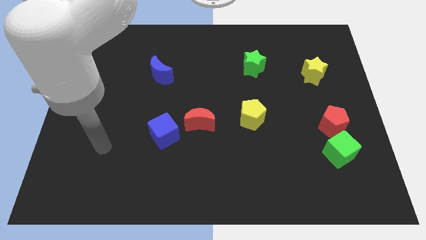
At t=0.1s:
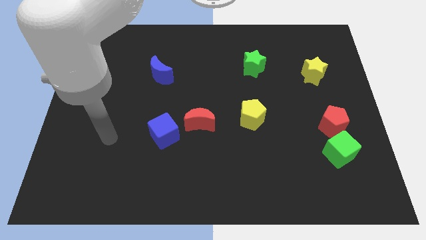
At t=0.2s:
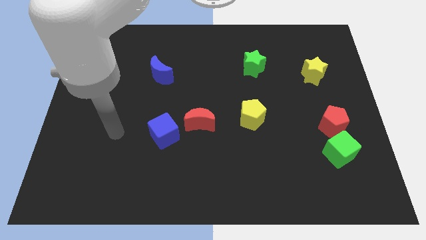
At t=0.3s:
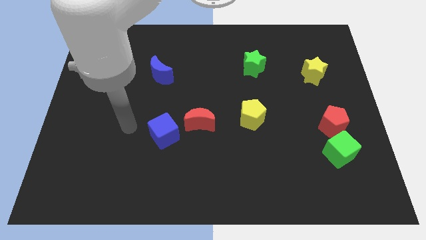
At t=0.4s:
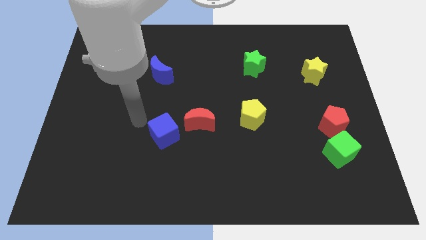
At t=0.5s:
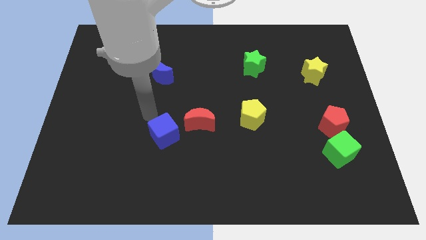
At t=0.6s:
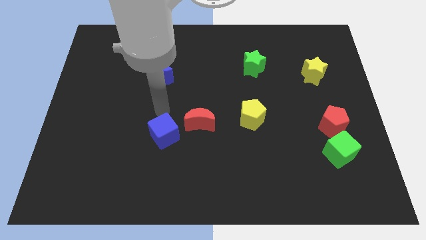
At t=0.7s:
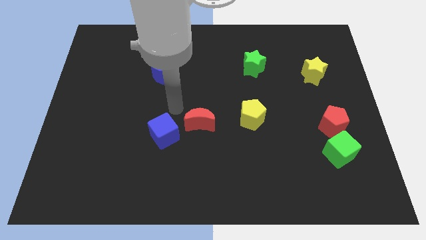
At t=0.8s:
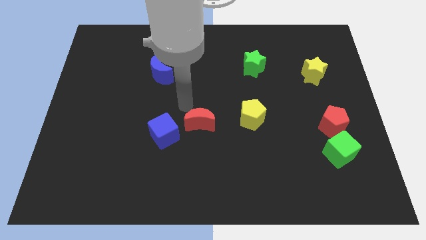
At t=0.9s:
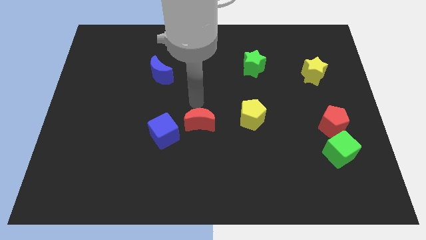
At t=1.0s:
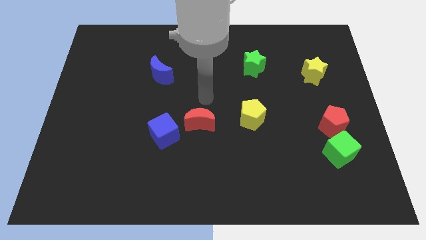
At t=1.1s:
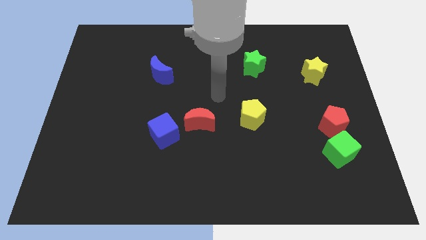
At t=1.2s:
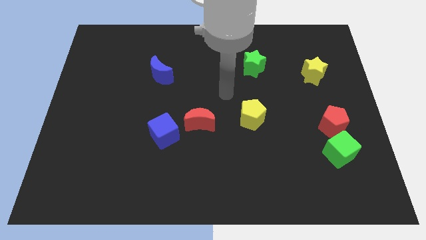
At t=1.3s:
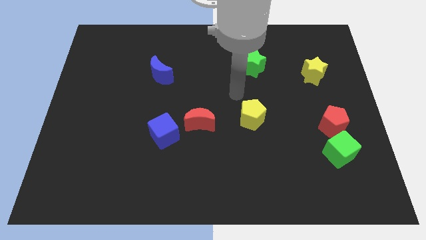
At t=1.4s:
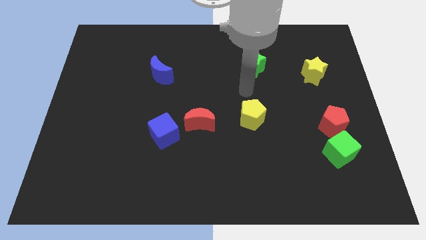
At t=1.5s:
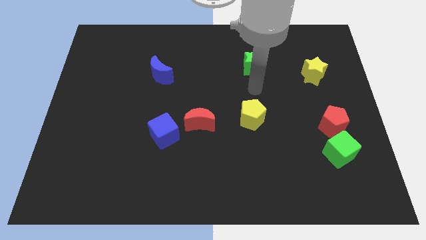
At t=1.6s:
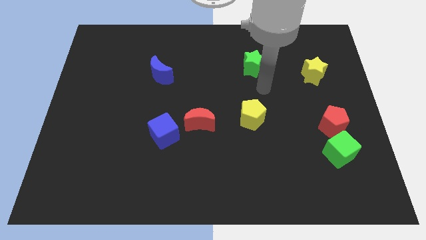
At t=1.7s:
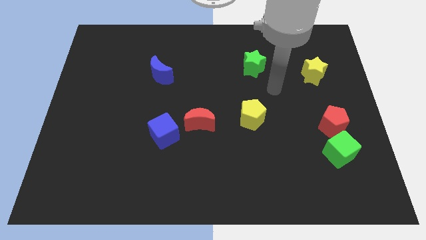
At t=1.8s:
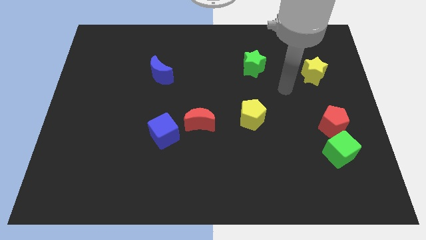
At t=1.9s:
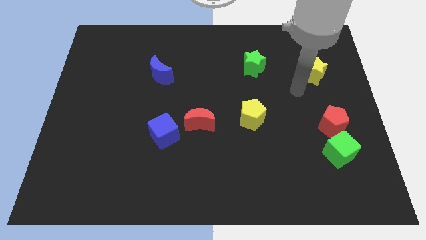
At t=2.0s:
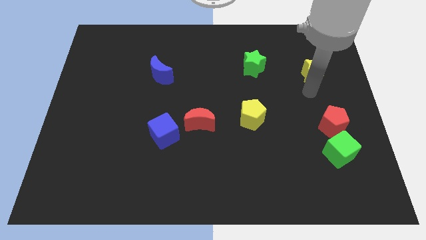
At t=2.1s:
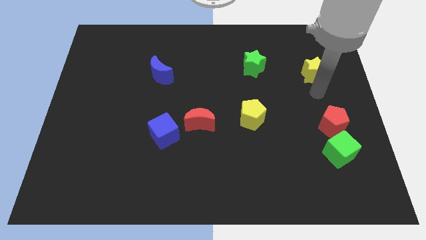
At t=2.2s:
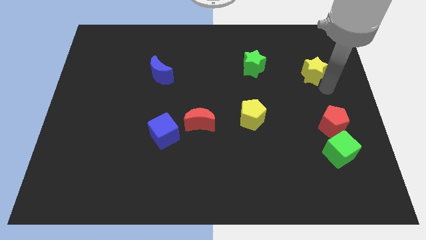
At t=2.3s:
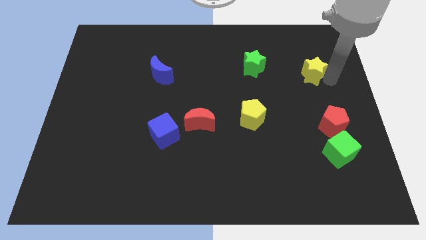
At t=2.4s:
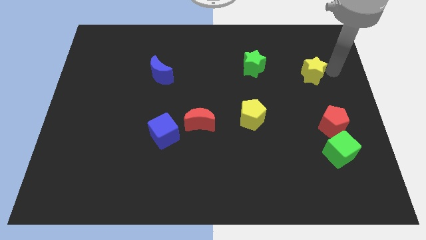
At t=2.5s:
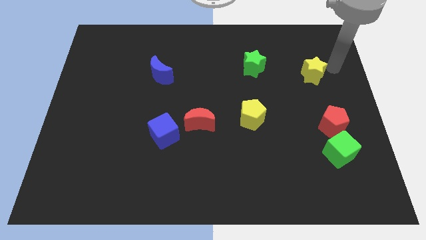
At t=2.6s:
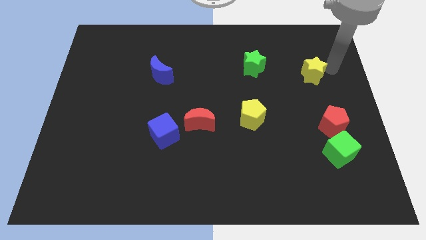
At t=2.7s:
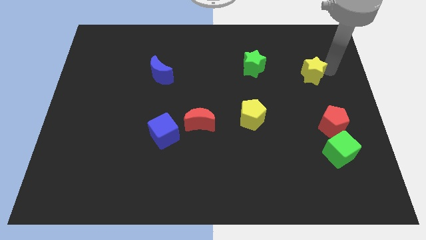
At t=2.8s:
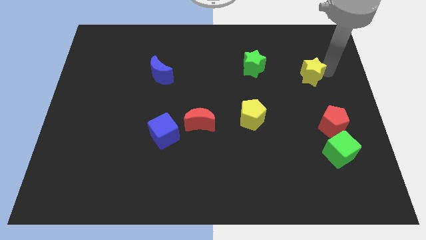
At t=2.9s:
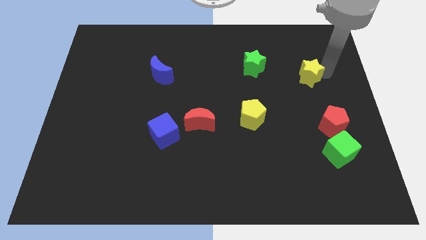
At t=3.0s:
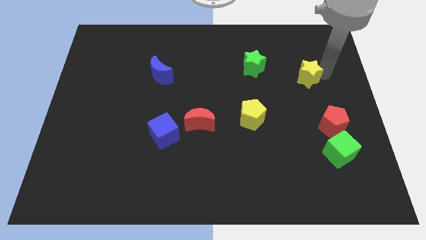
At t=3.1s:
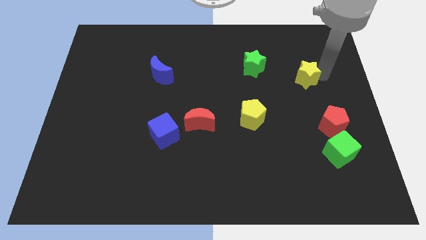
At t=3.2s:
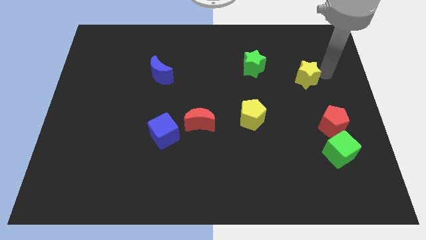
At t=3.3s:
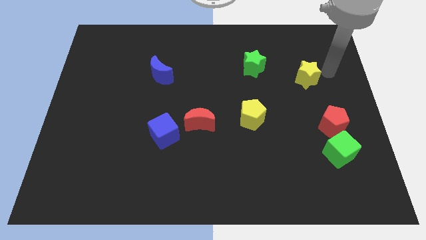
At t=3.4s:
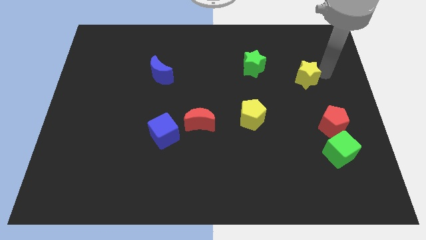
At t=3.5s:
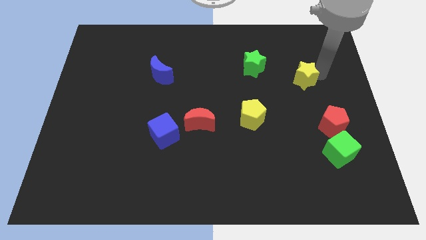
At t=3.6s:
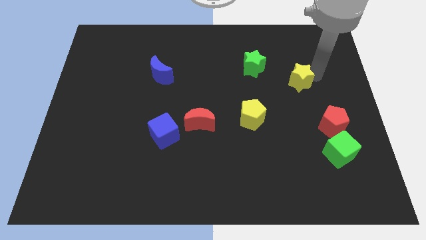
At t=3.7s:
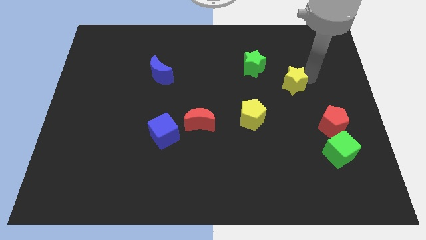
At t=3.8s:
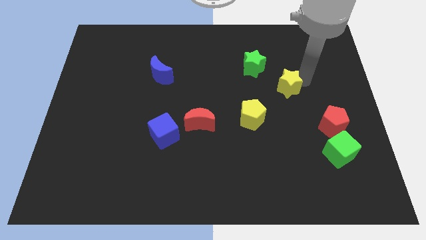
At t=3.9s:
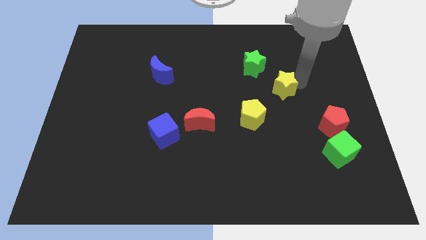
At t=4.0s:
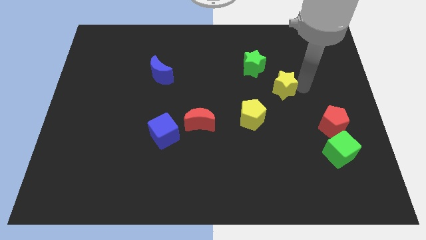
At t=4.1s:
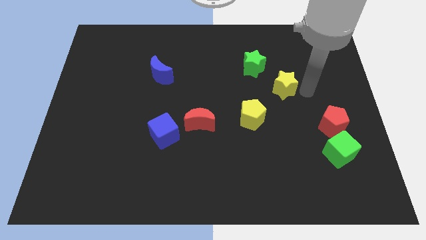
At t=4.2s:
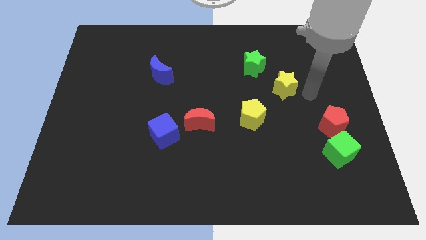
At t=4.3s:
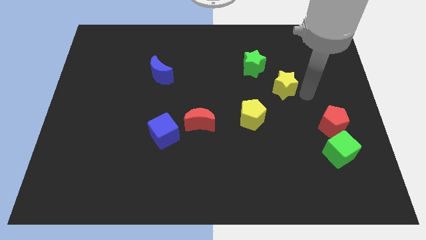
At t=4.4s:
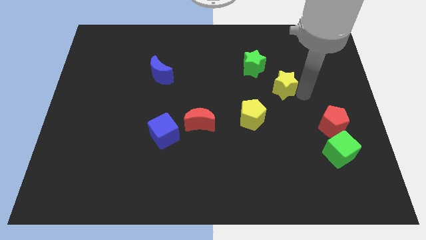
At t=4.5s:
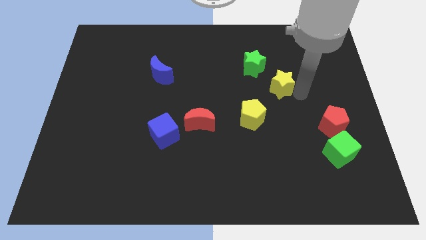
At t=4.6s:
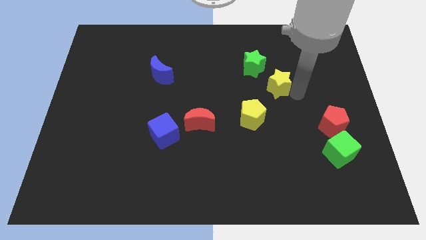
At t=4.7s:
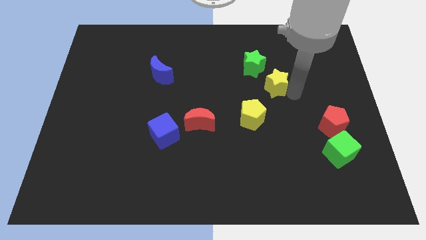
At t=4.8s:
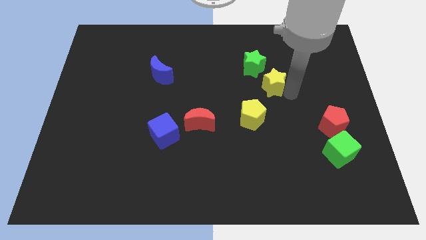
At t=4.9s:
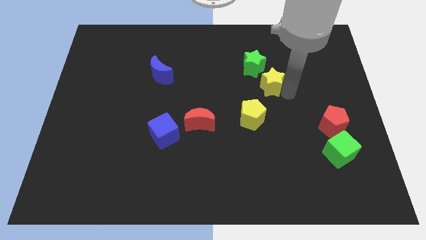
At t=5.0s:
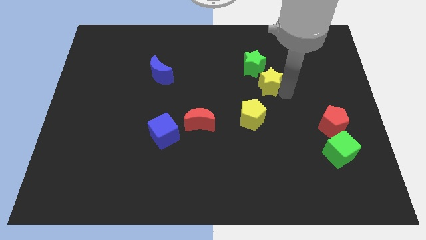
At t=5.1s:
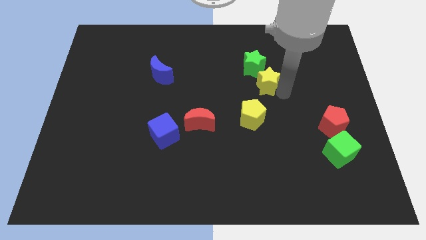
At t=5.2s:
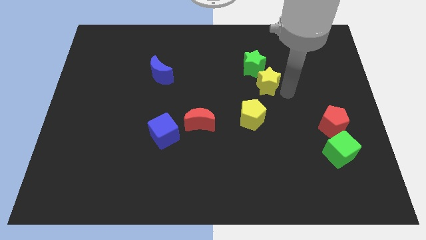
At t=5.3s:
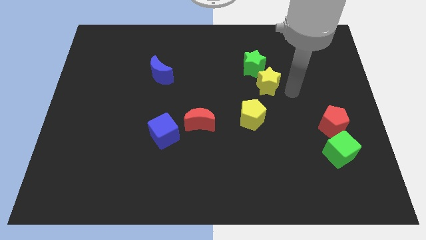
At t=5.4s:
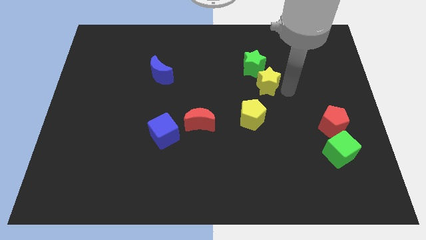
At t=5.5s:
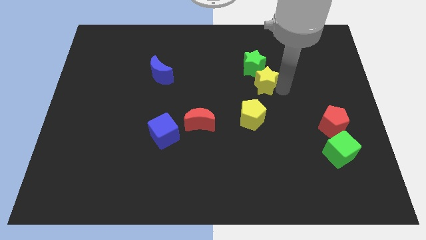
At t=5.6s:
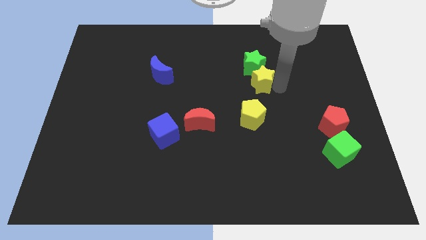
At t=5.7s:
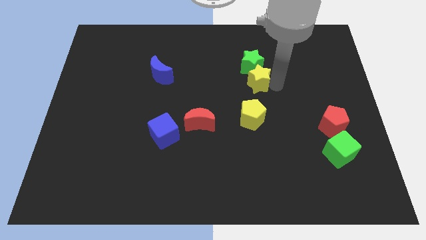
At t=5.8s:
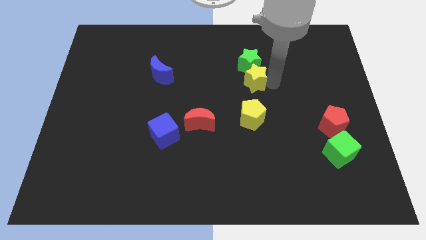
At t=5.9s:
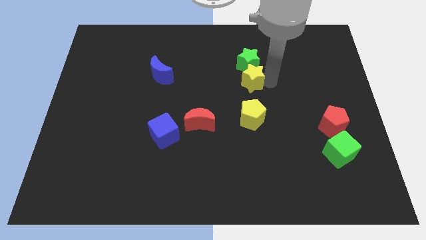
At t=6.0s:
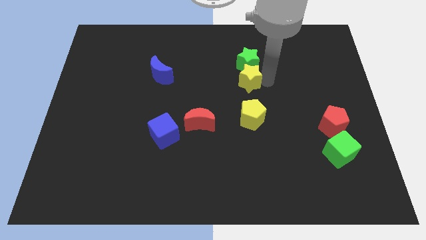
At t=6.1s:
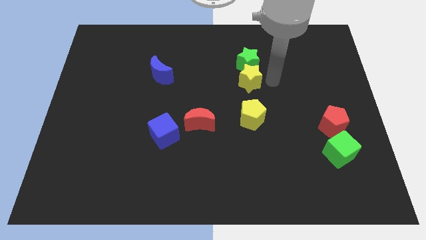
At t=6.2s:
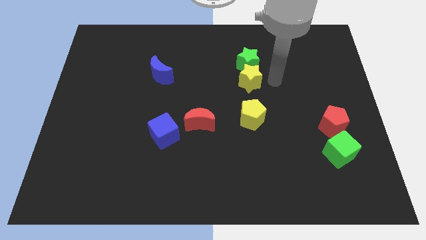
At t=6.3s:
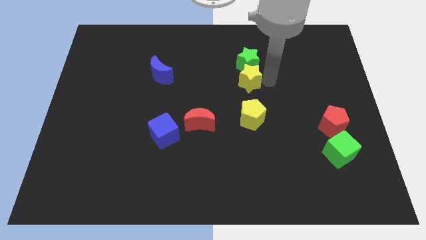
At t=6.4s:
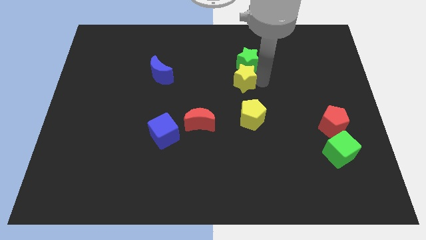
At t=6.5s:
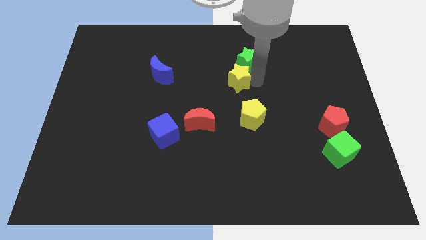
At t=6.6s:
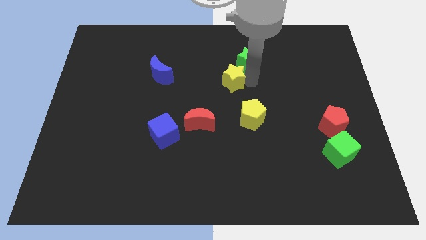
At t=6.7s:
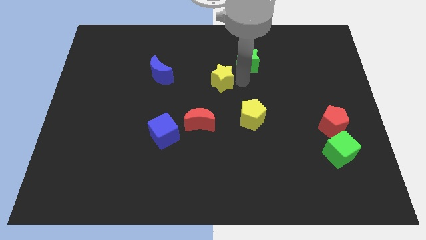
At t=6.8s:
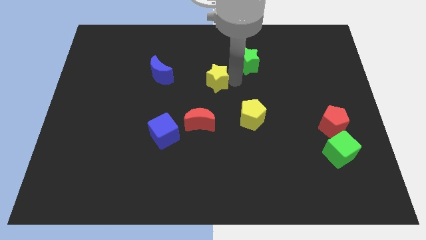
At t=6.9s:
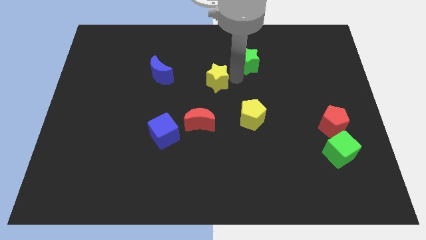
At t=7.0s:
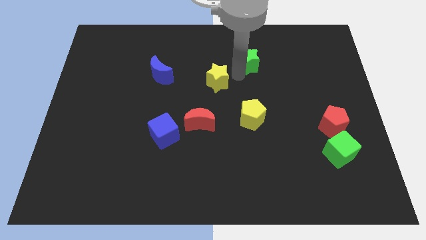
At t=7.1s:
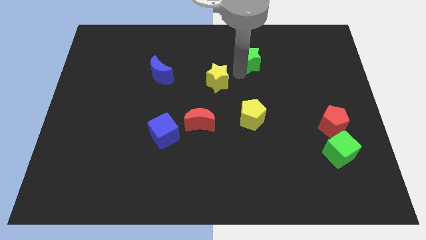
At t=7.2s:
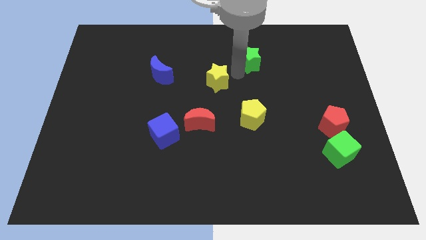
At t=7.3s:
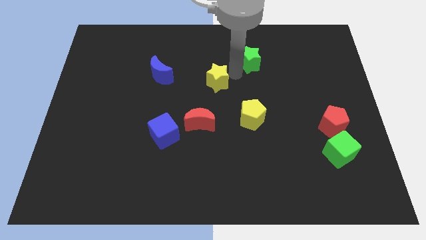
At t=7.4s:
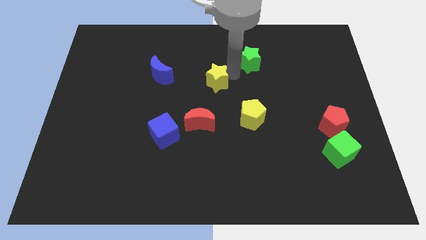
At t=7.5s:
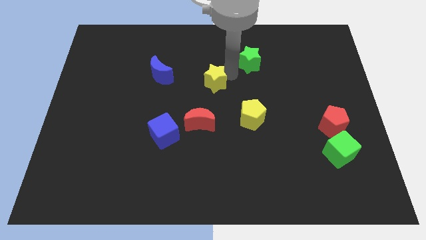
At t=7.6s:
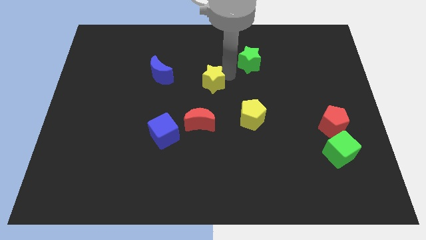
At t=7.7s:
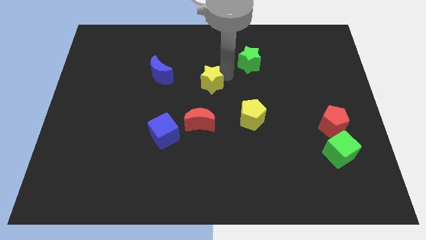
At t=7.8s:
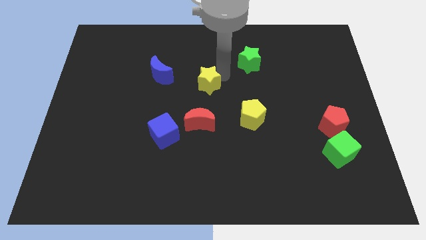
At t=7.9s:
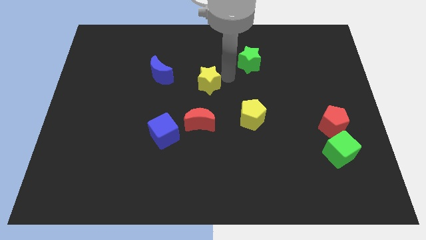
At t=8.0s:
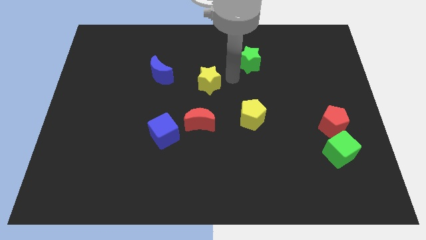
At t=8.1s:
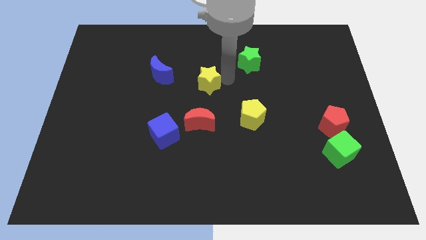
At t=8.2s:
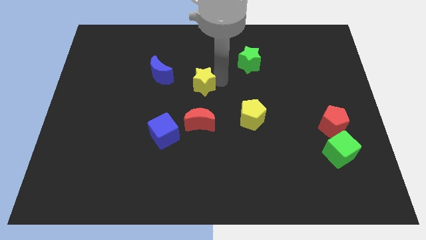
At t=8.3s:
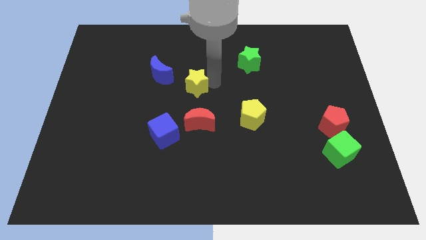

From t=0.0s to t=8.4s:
push the yellow star to the bottom right of the blue moon
